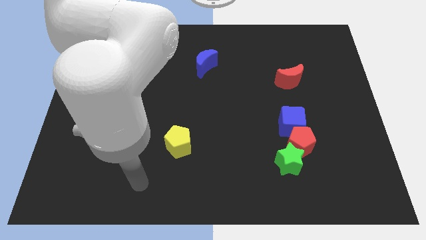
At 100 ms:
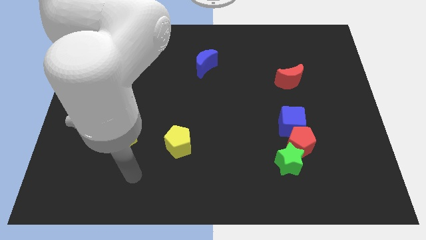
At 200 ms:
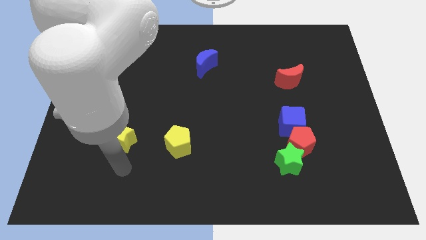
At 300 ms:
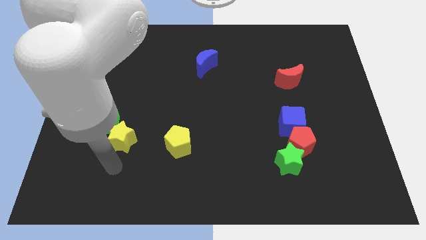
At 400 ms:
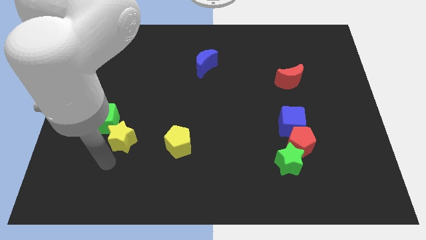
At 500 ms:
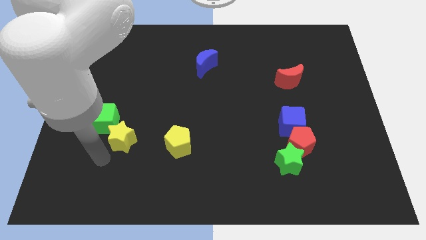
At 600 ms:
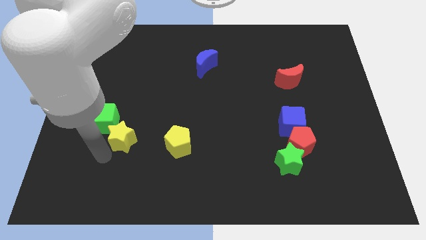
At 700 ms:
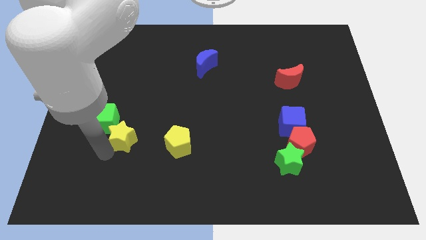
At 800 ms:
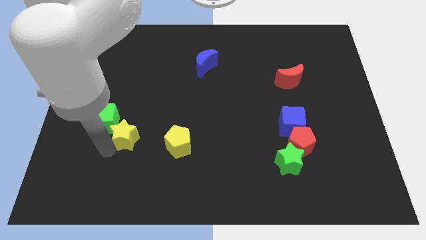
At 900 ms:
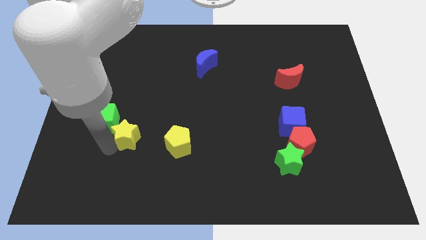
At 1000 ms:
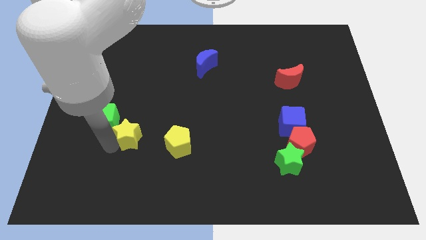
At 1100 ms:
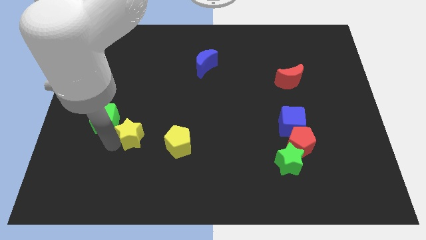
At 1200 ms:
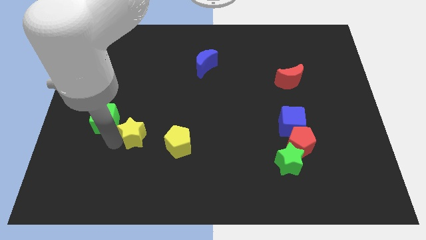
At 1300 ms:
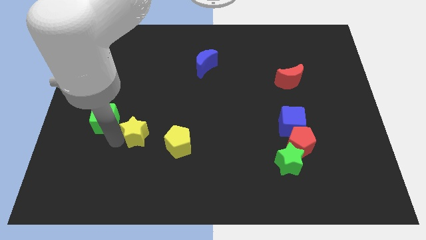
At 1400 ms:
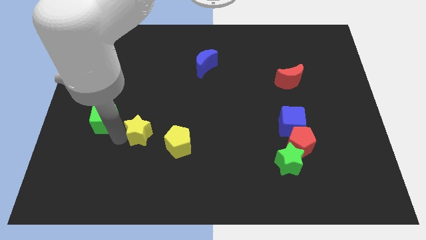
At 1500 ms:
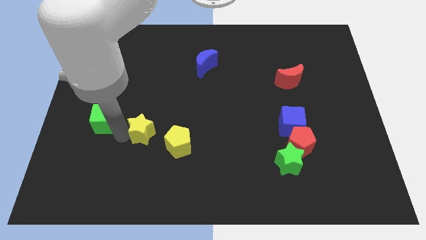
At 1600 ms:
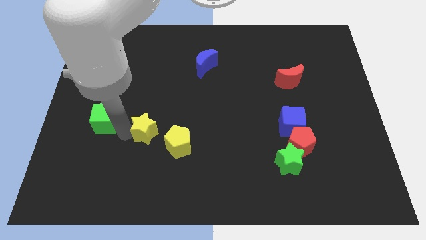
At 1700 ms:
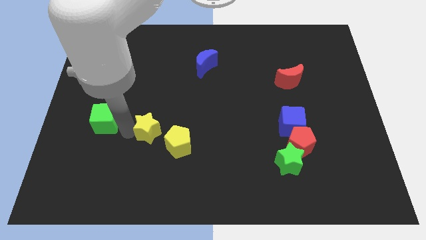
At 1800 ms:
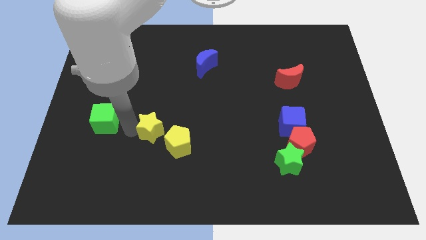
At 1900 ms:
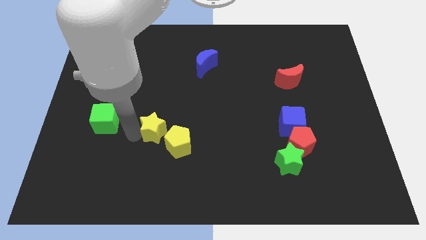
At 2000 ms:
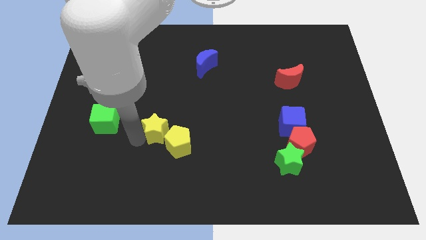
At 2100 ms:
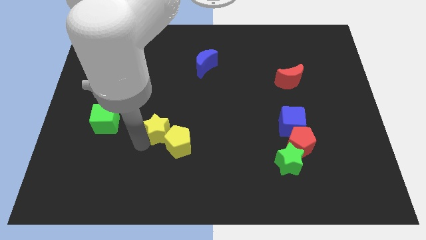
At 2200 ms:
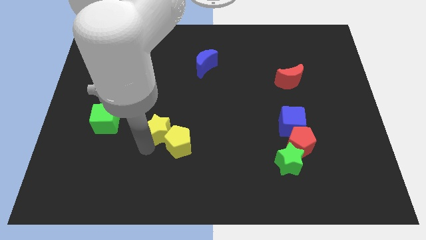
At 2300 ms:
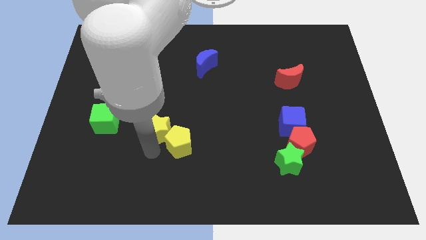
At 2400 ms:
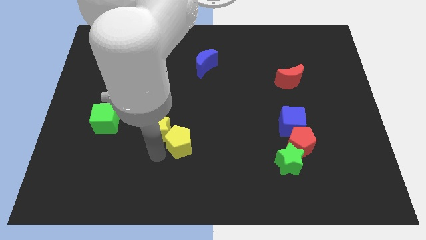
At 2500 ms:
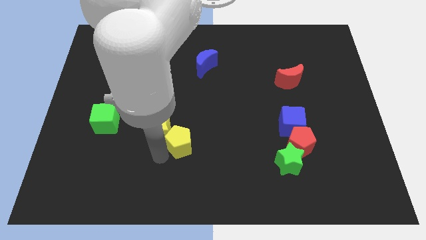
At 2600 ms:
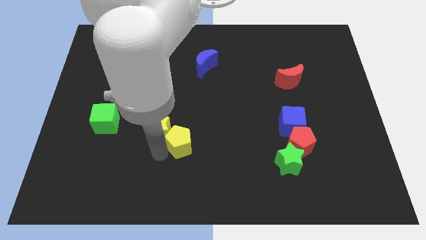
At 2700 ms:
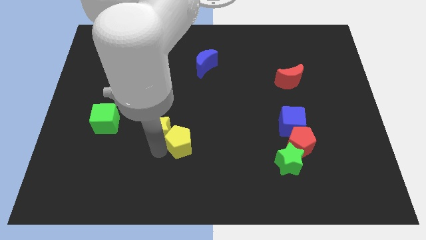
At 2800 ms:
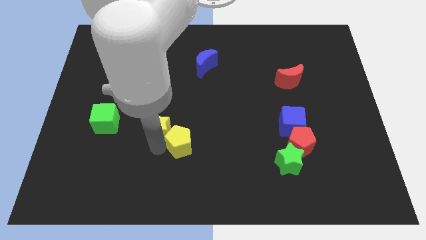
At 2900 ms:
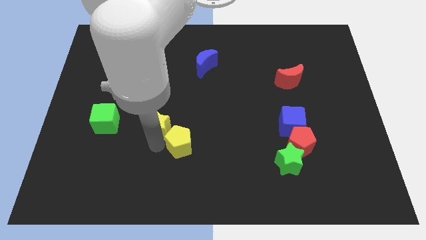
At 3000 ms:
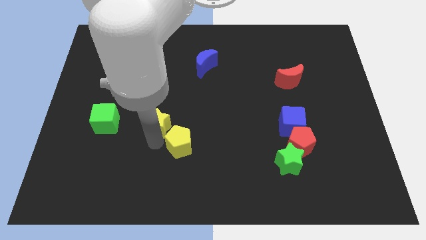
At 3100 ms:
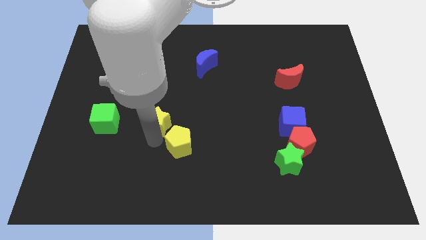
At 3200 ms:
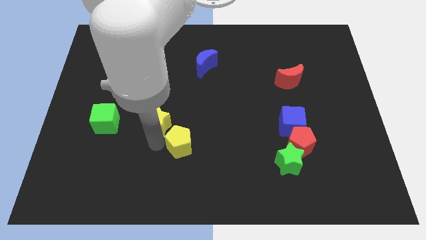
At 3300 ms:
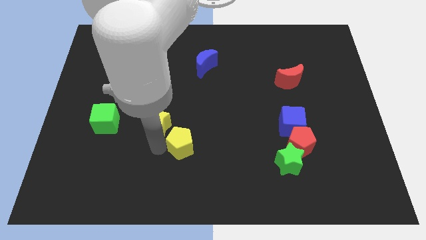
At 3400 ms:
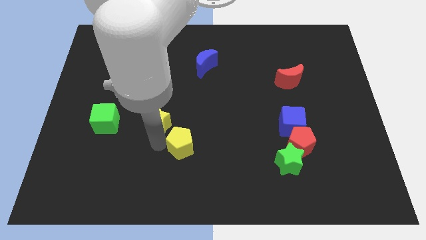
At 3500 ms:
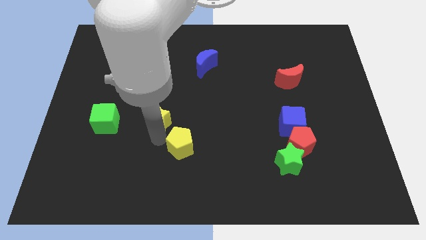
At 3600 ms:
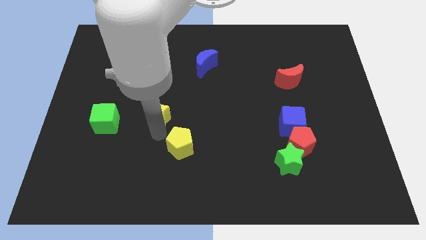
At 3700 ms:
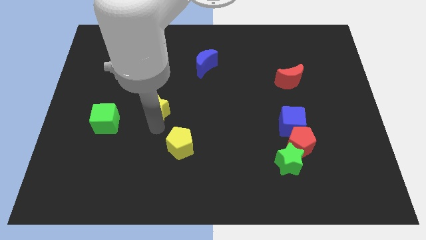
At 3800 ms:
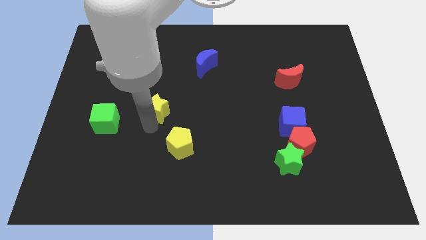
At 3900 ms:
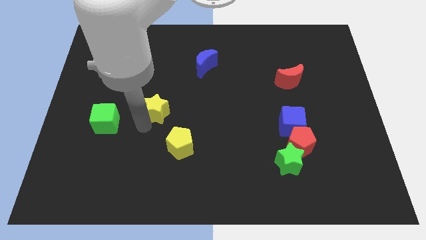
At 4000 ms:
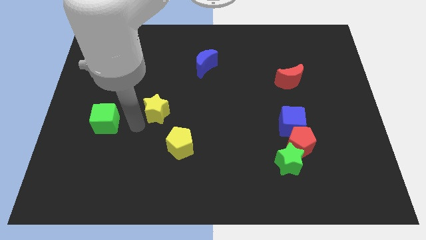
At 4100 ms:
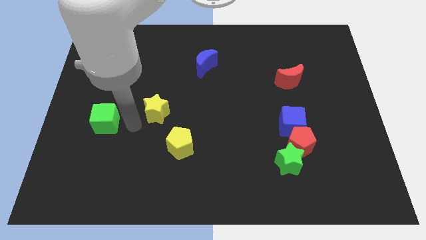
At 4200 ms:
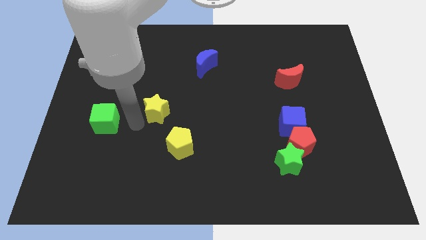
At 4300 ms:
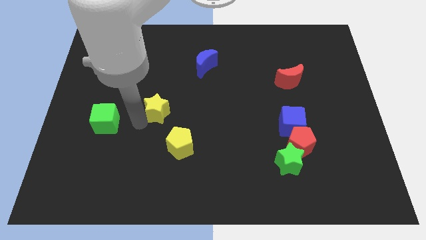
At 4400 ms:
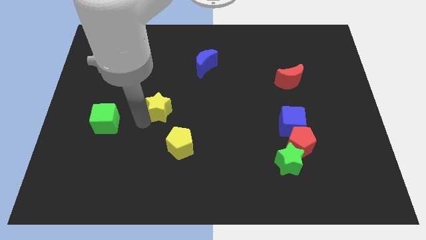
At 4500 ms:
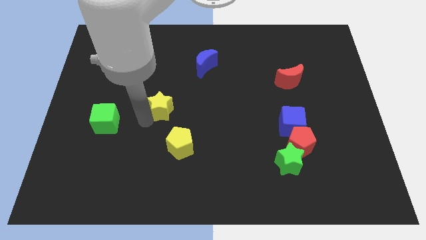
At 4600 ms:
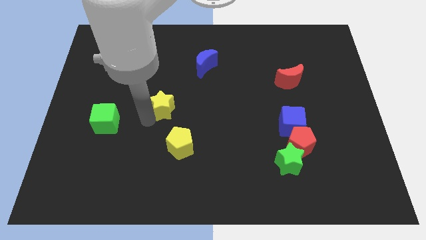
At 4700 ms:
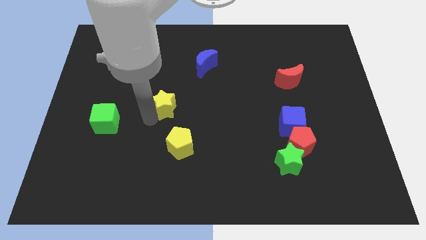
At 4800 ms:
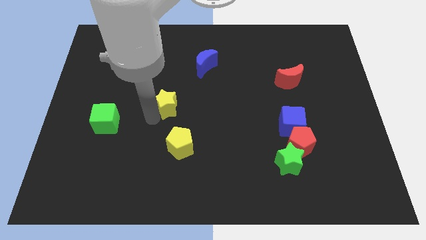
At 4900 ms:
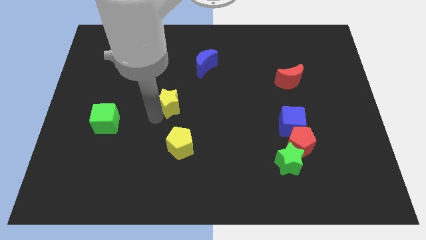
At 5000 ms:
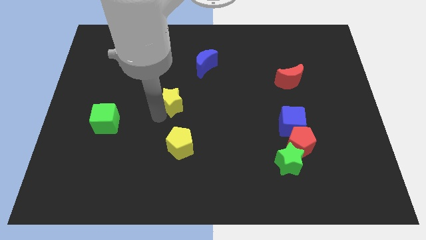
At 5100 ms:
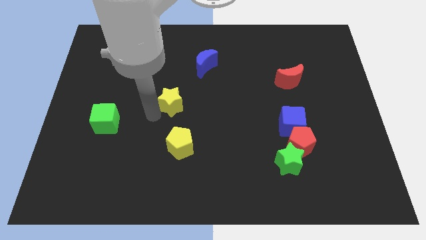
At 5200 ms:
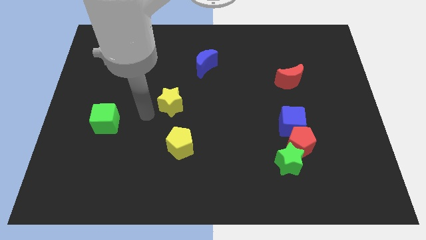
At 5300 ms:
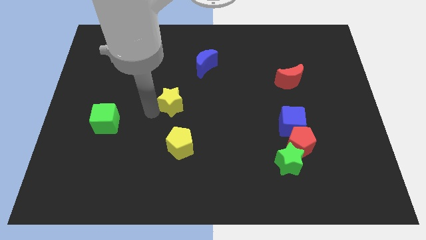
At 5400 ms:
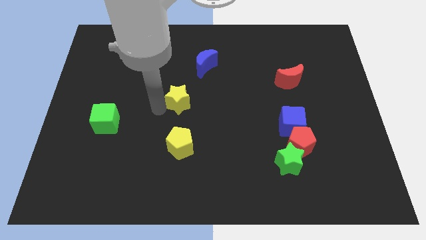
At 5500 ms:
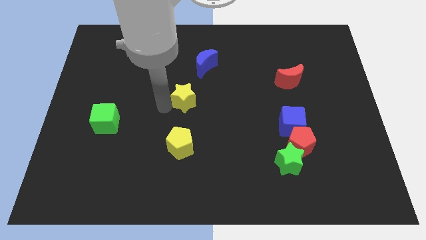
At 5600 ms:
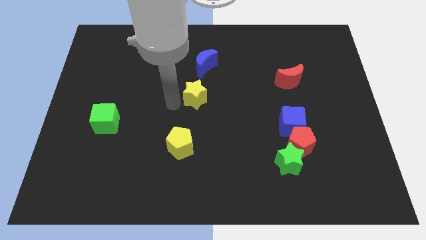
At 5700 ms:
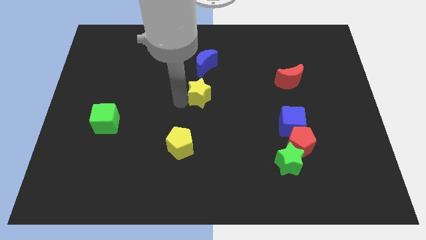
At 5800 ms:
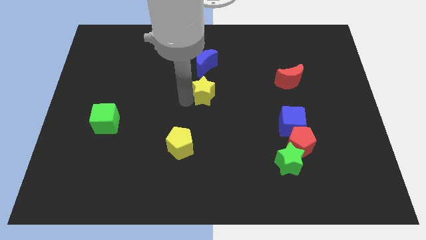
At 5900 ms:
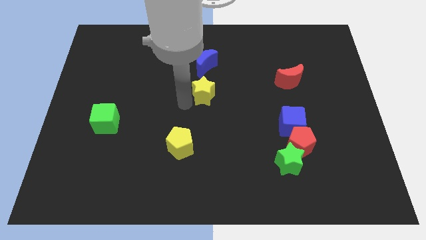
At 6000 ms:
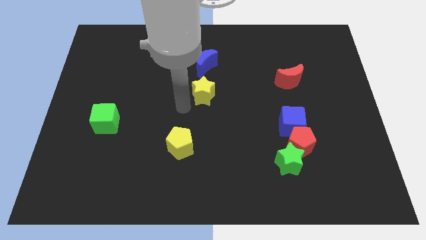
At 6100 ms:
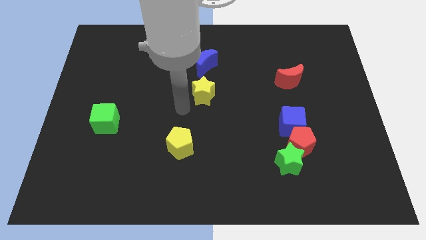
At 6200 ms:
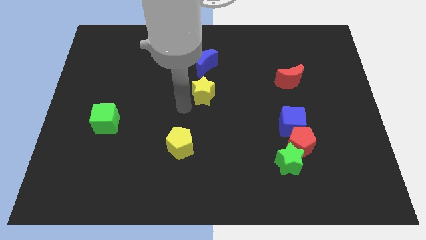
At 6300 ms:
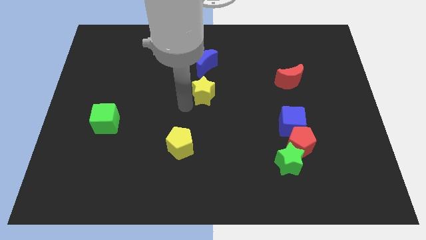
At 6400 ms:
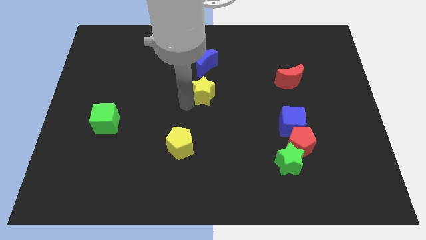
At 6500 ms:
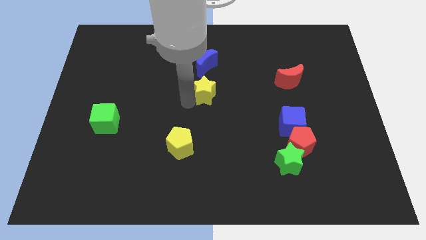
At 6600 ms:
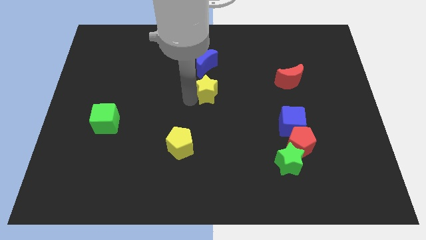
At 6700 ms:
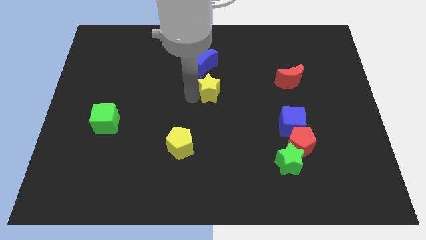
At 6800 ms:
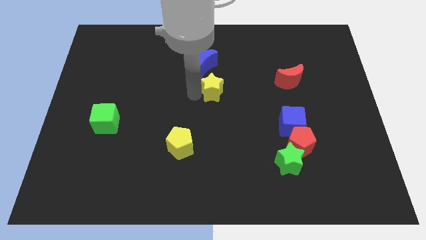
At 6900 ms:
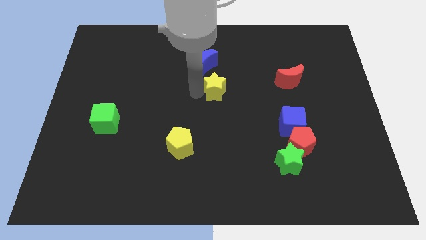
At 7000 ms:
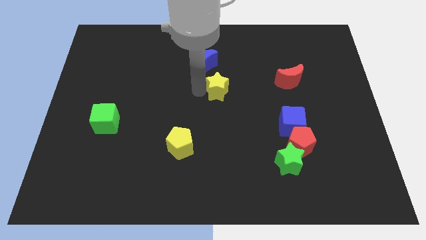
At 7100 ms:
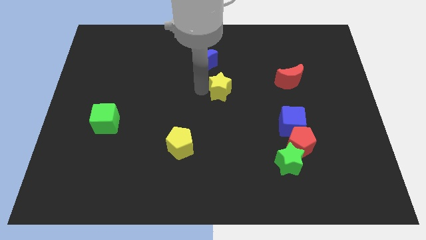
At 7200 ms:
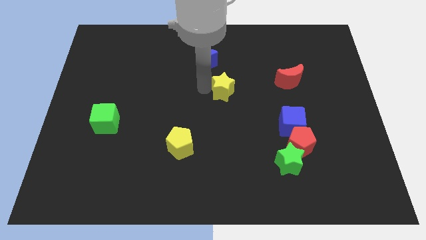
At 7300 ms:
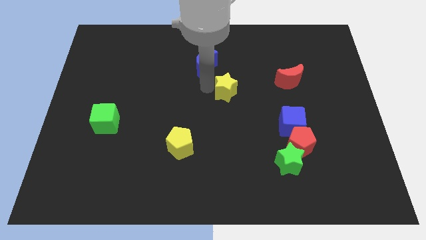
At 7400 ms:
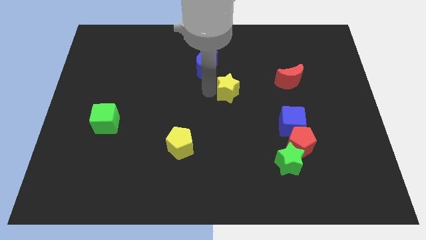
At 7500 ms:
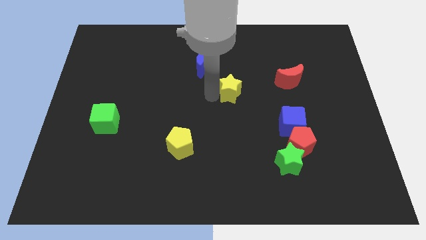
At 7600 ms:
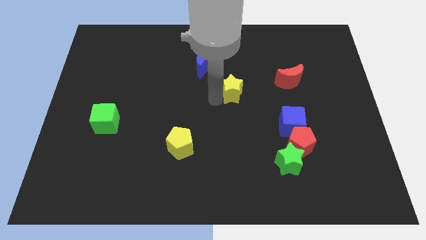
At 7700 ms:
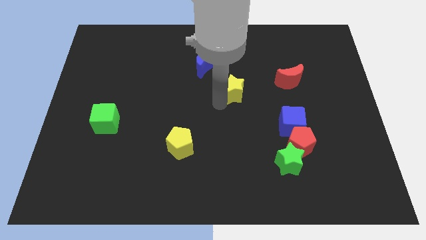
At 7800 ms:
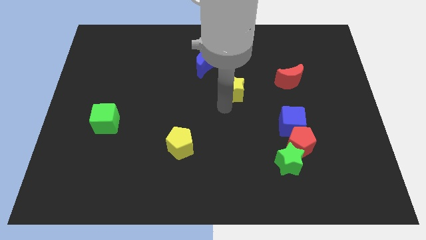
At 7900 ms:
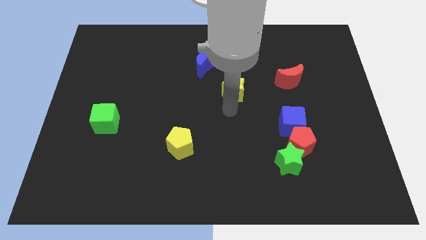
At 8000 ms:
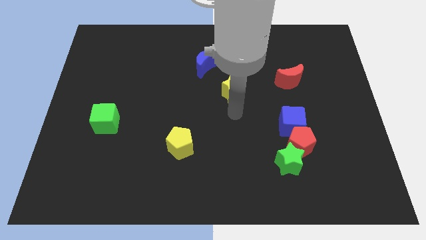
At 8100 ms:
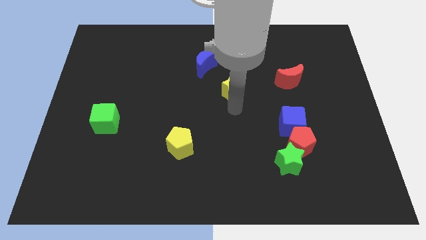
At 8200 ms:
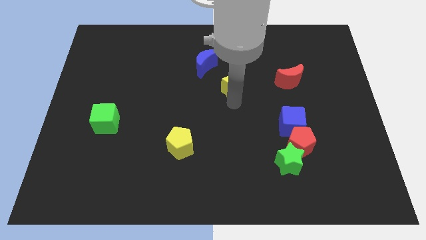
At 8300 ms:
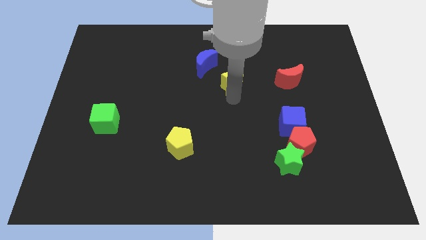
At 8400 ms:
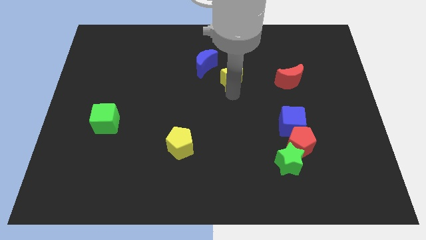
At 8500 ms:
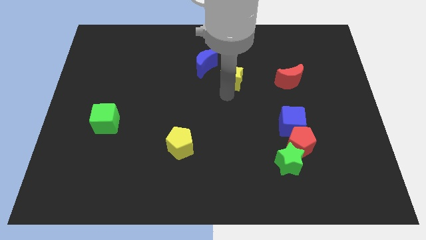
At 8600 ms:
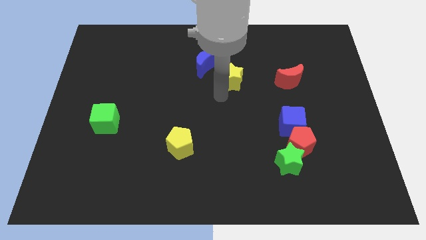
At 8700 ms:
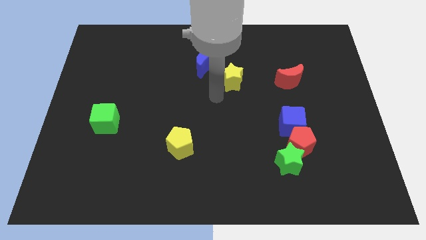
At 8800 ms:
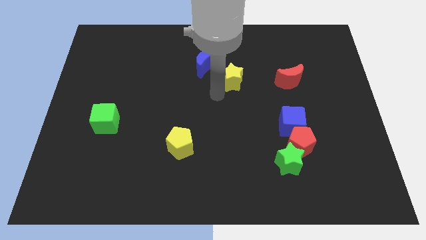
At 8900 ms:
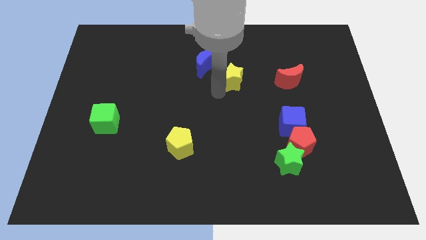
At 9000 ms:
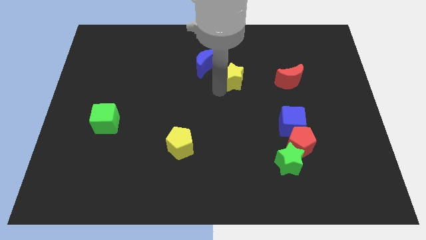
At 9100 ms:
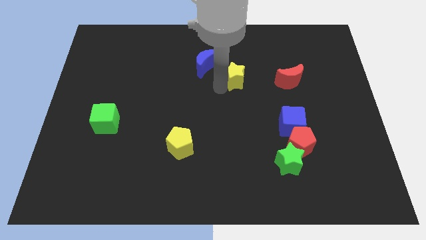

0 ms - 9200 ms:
slide the yellow star right of the blue moon
